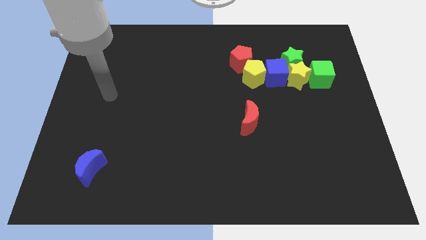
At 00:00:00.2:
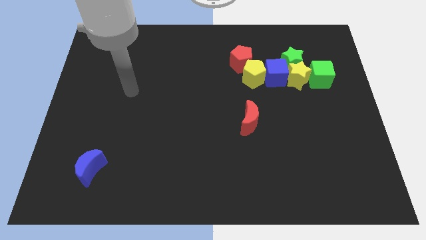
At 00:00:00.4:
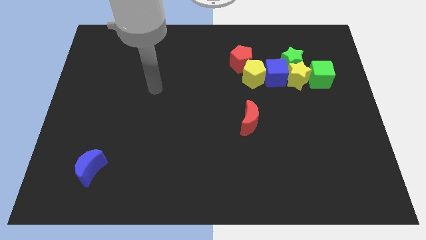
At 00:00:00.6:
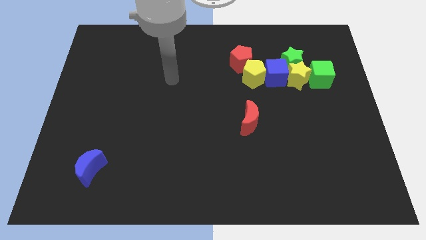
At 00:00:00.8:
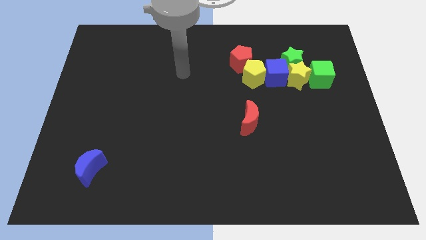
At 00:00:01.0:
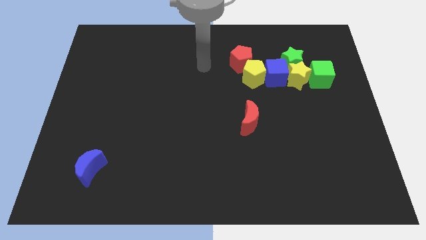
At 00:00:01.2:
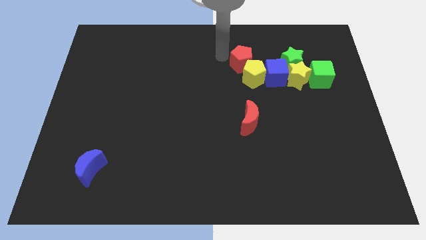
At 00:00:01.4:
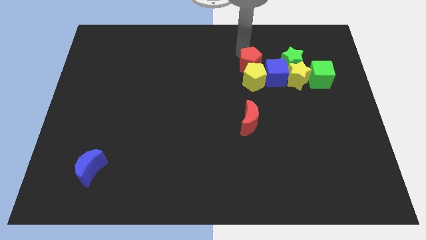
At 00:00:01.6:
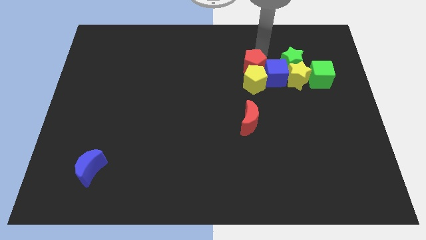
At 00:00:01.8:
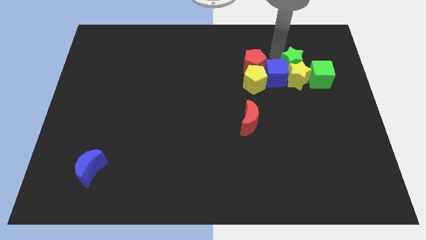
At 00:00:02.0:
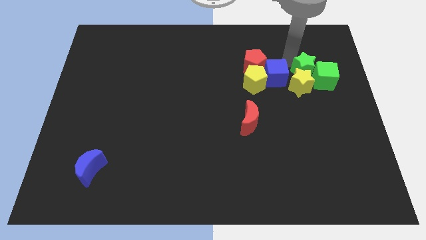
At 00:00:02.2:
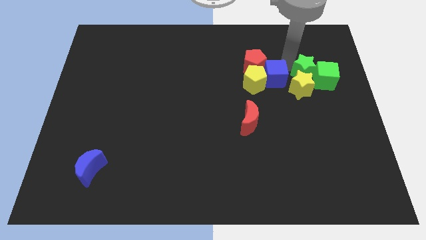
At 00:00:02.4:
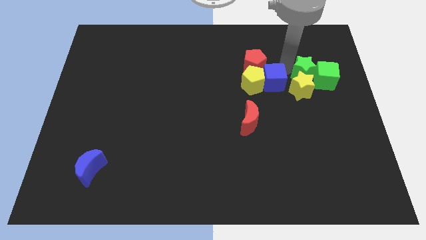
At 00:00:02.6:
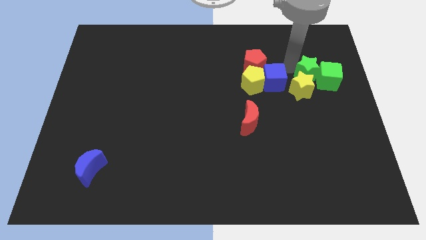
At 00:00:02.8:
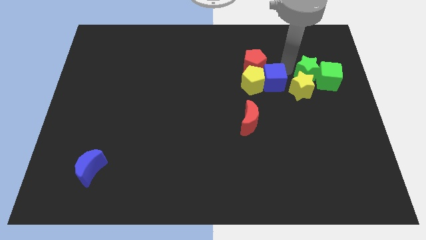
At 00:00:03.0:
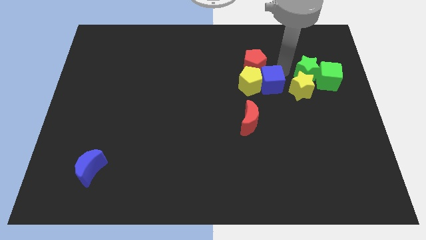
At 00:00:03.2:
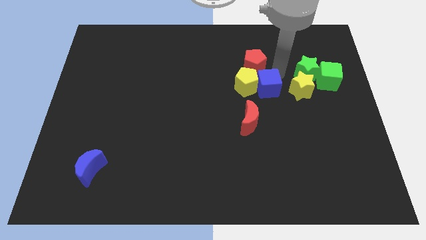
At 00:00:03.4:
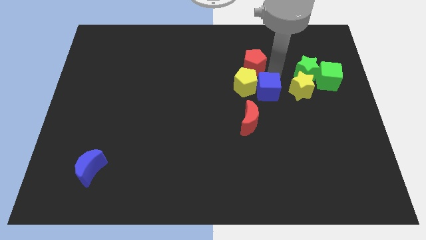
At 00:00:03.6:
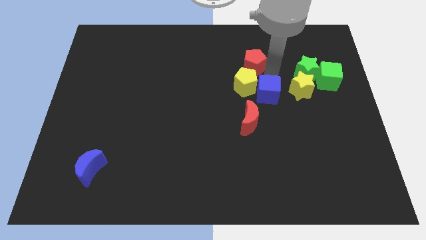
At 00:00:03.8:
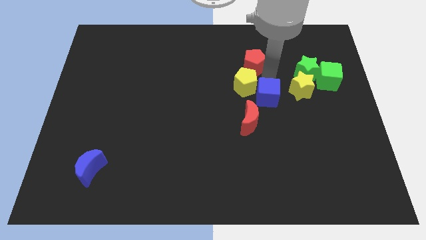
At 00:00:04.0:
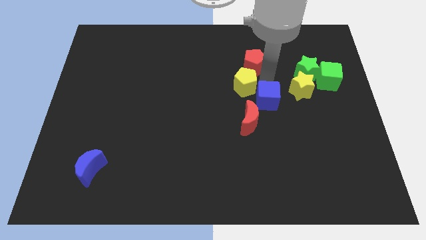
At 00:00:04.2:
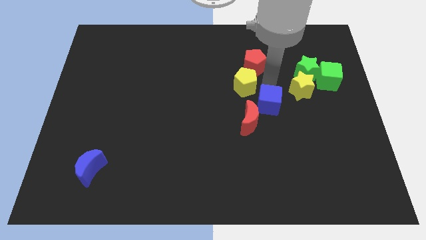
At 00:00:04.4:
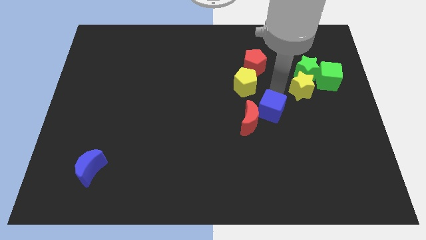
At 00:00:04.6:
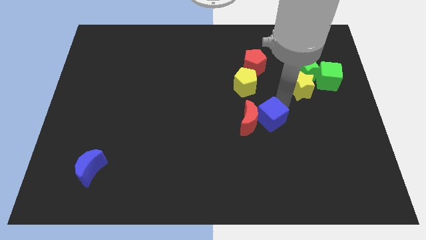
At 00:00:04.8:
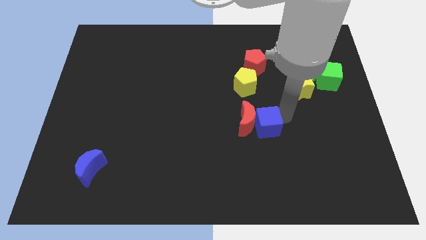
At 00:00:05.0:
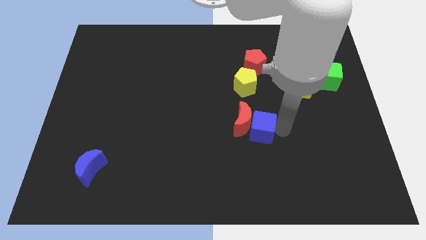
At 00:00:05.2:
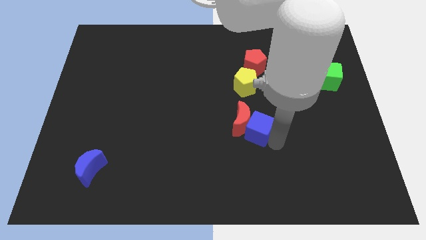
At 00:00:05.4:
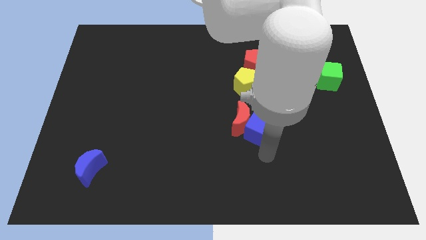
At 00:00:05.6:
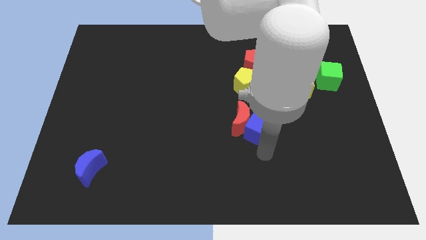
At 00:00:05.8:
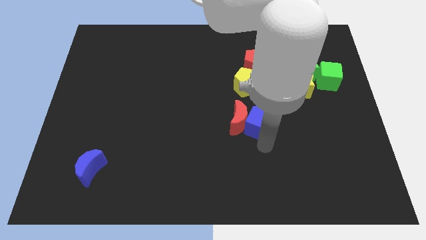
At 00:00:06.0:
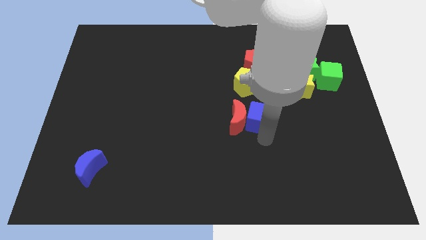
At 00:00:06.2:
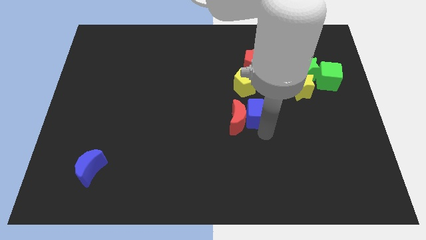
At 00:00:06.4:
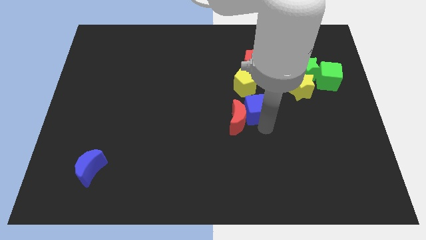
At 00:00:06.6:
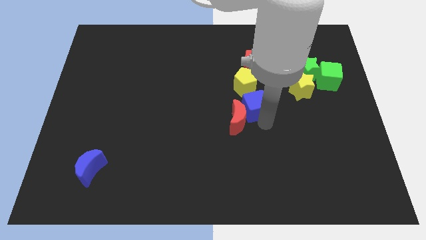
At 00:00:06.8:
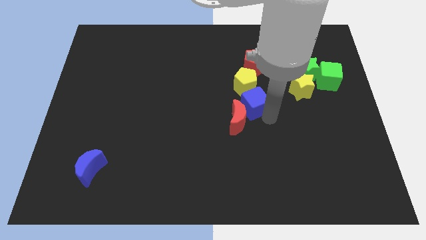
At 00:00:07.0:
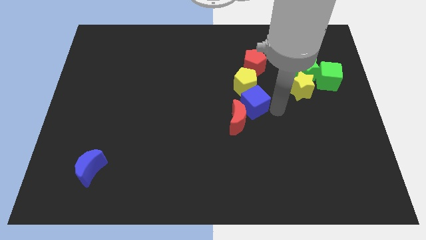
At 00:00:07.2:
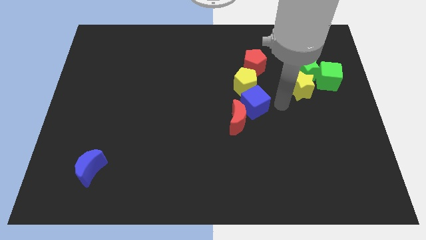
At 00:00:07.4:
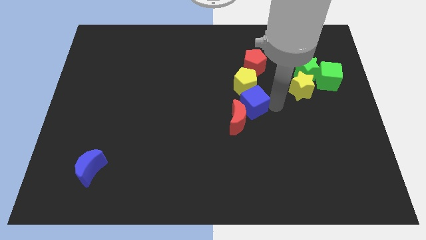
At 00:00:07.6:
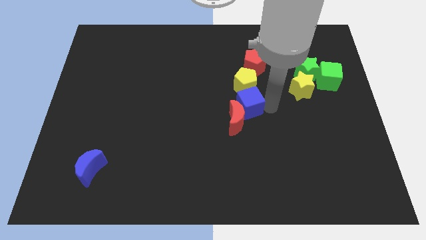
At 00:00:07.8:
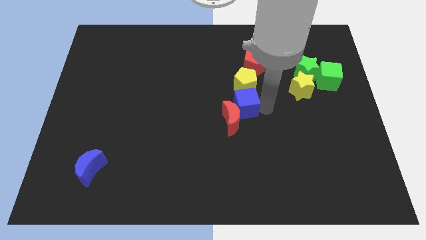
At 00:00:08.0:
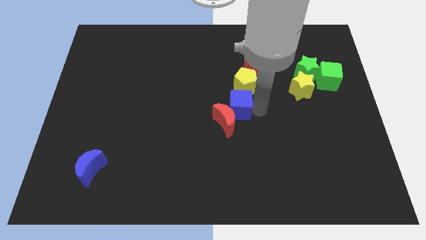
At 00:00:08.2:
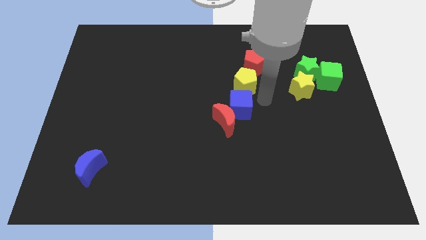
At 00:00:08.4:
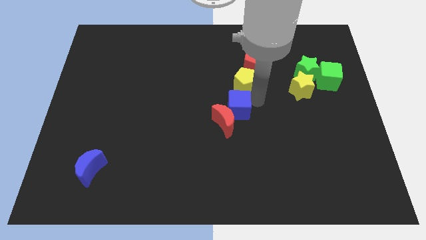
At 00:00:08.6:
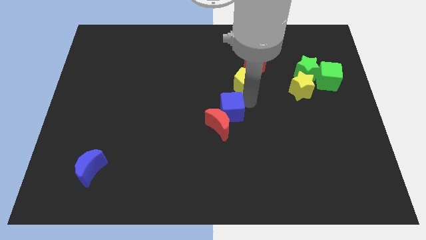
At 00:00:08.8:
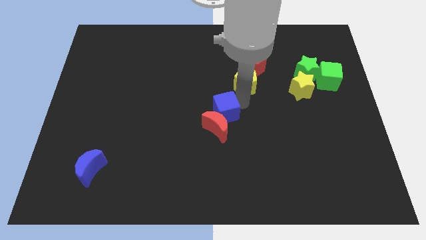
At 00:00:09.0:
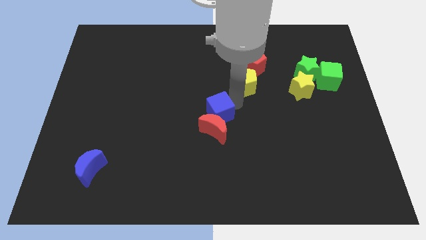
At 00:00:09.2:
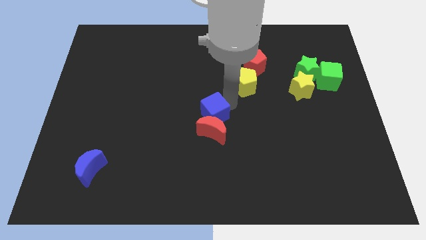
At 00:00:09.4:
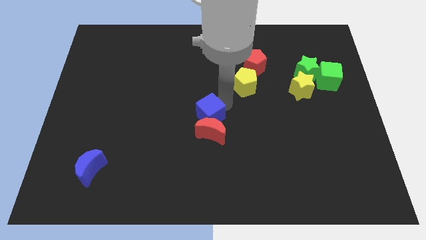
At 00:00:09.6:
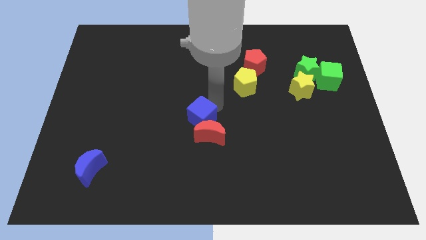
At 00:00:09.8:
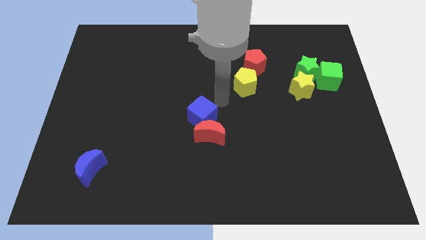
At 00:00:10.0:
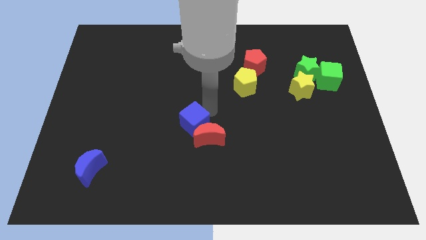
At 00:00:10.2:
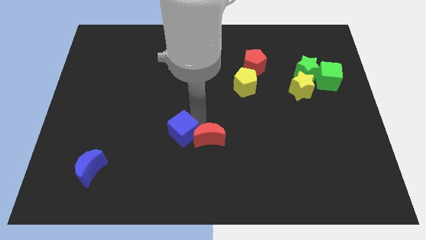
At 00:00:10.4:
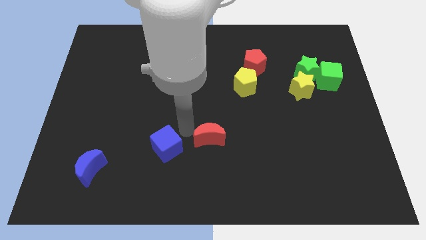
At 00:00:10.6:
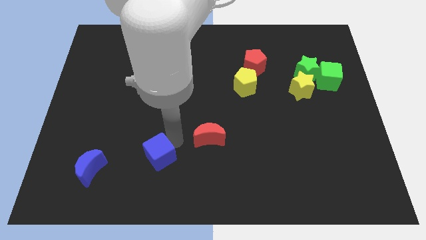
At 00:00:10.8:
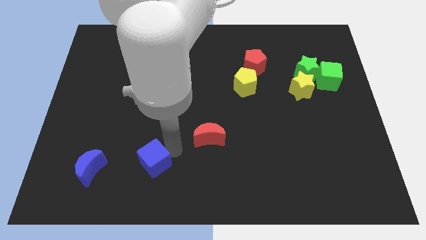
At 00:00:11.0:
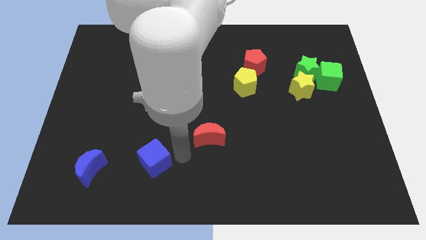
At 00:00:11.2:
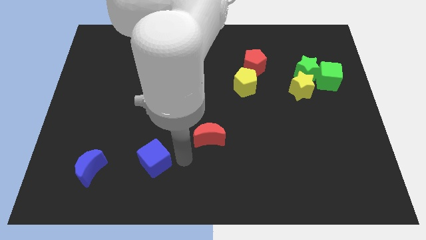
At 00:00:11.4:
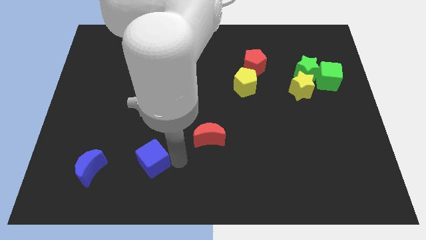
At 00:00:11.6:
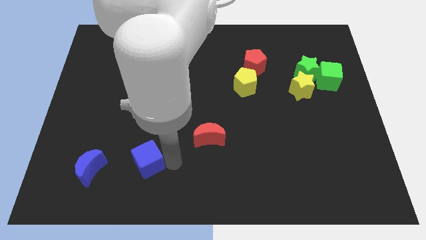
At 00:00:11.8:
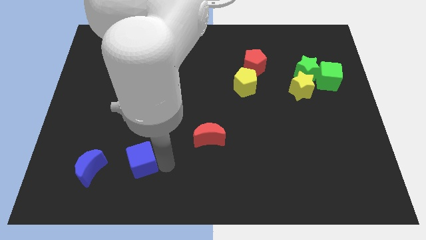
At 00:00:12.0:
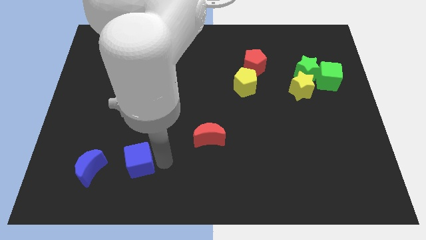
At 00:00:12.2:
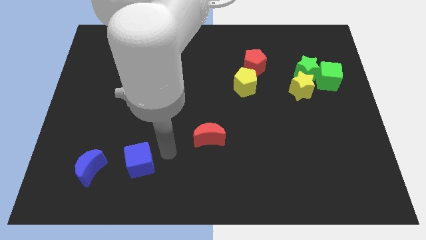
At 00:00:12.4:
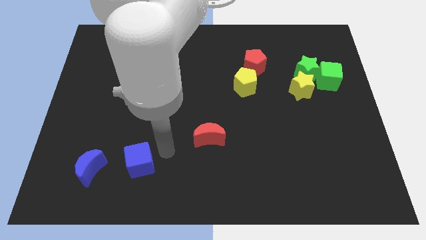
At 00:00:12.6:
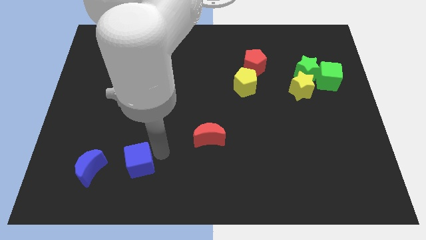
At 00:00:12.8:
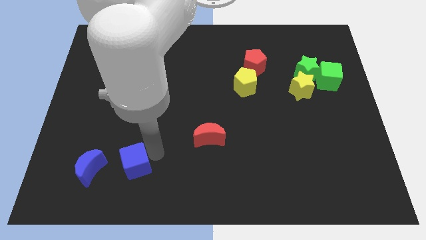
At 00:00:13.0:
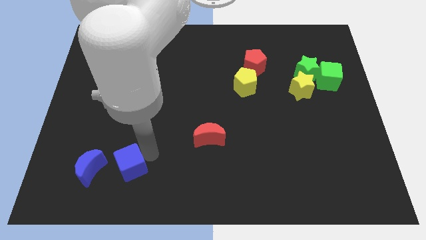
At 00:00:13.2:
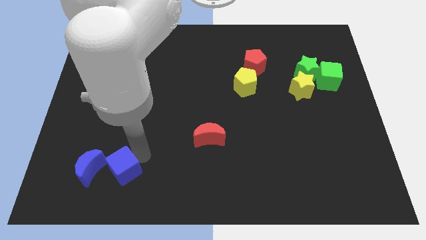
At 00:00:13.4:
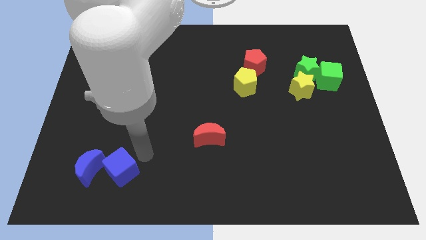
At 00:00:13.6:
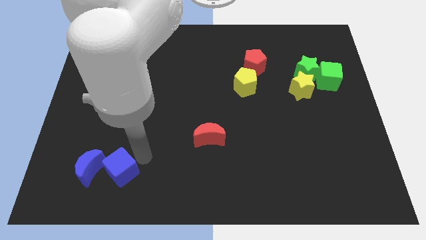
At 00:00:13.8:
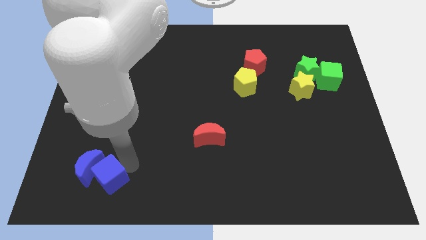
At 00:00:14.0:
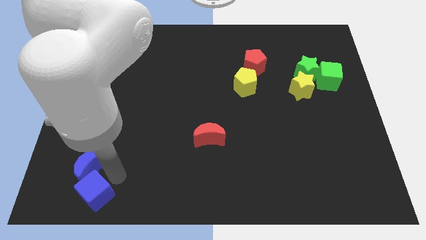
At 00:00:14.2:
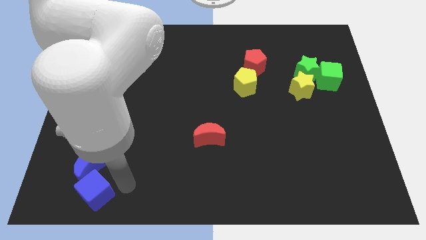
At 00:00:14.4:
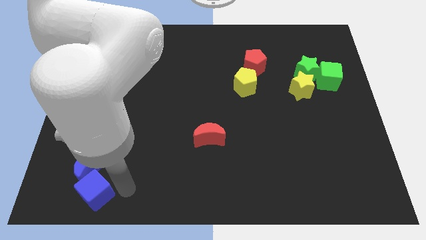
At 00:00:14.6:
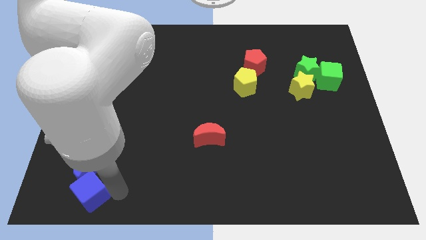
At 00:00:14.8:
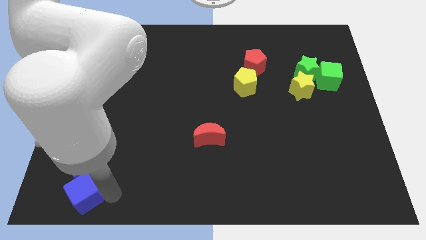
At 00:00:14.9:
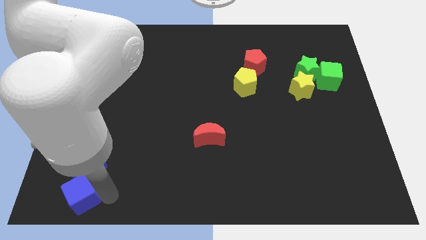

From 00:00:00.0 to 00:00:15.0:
slide the blue cube to the bottom left
